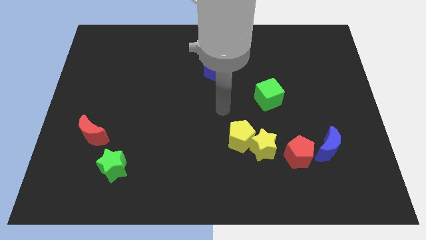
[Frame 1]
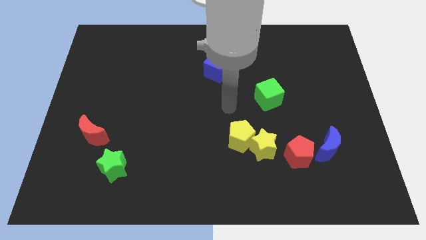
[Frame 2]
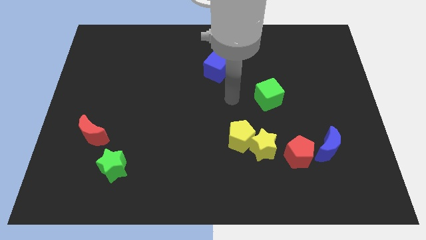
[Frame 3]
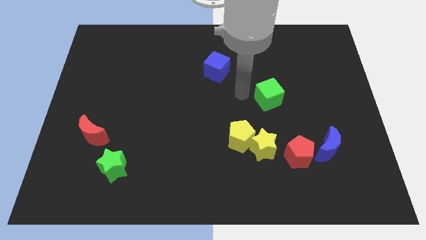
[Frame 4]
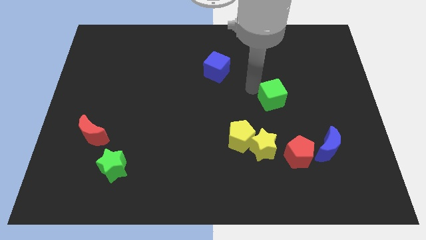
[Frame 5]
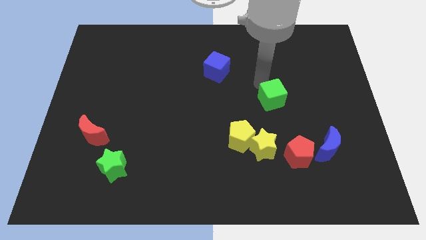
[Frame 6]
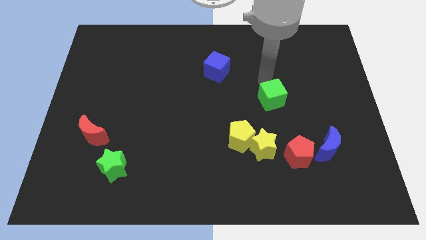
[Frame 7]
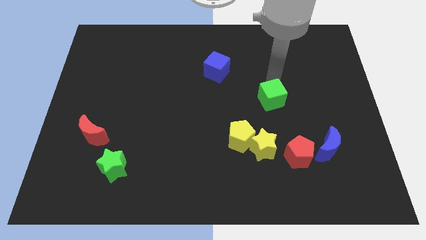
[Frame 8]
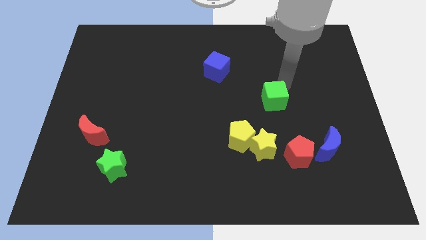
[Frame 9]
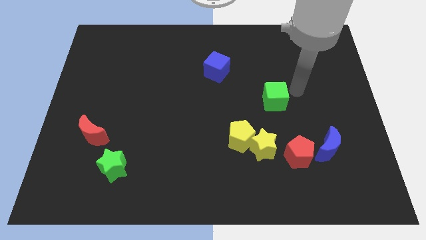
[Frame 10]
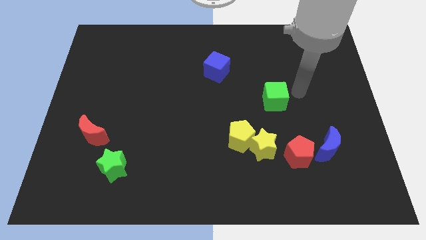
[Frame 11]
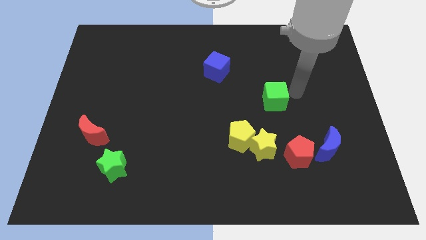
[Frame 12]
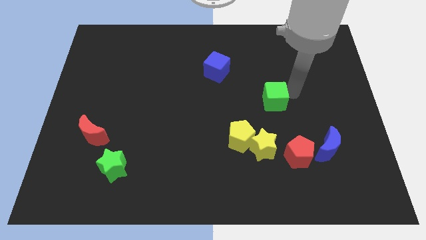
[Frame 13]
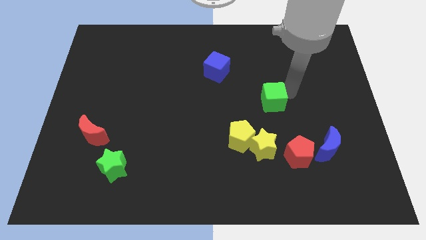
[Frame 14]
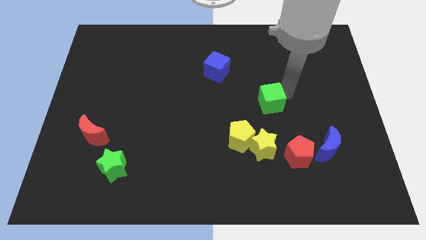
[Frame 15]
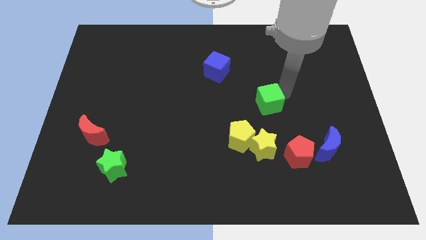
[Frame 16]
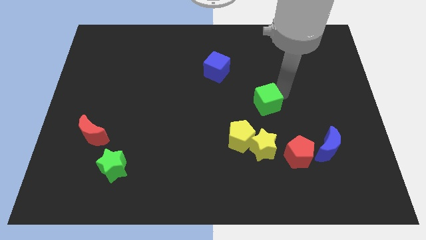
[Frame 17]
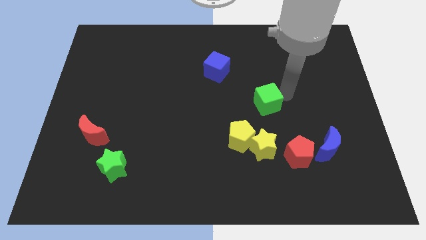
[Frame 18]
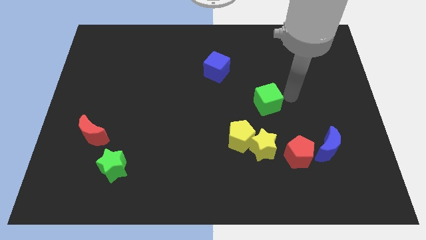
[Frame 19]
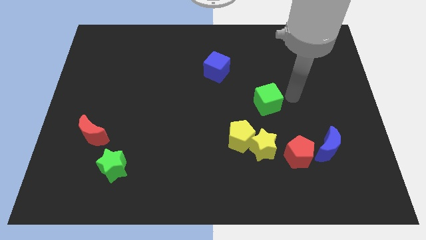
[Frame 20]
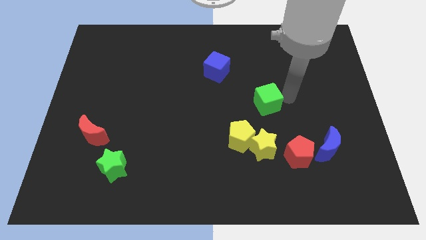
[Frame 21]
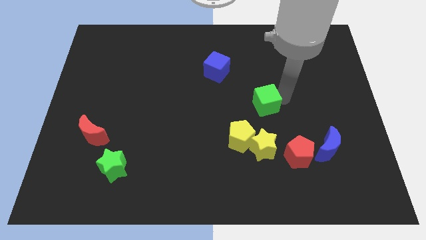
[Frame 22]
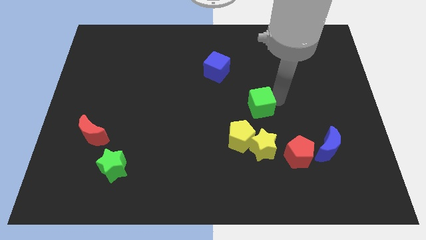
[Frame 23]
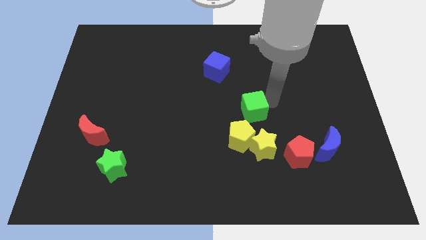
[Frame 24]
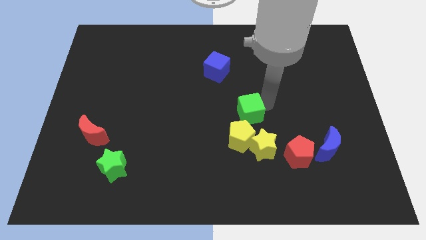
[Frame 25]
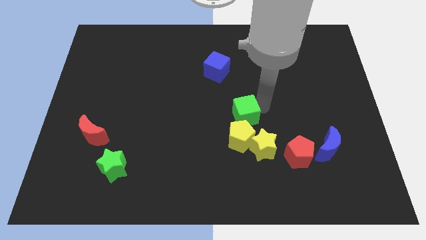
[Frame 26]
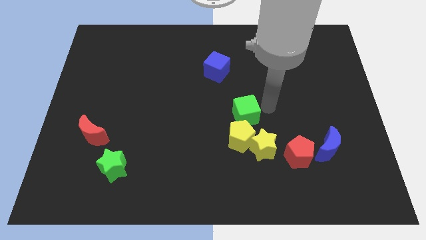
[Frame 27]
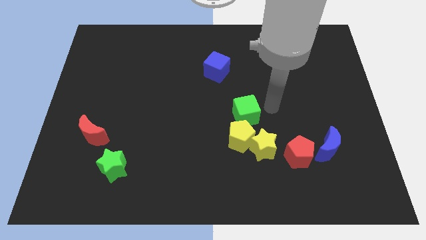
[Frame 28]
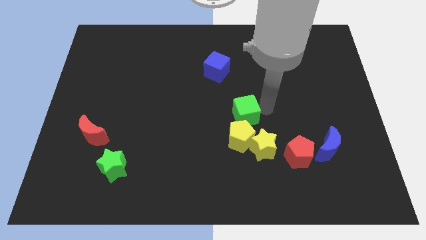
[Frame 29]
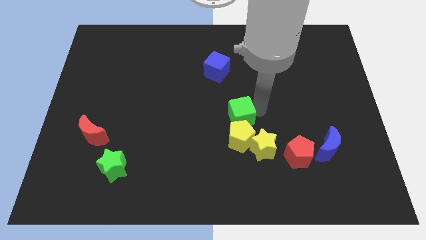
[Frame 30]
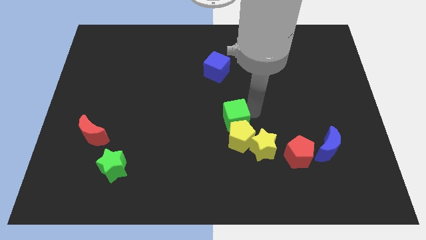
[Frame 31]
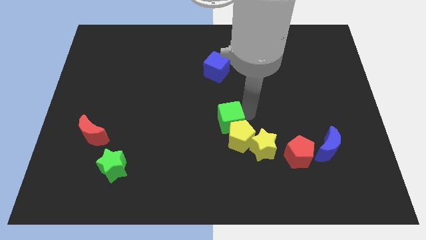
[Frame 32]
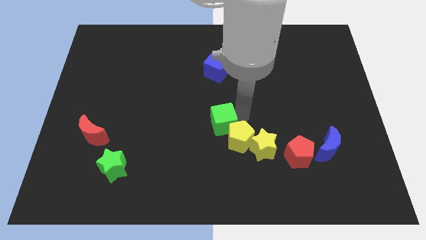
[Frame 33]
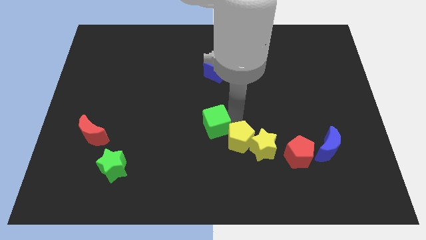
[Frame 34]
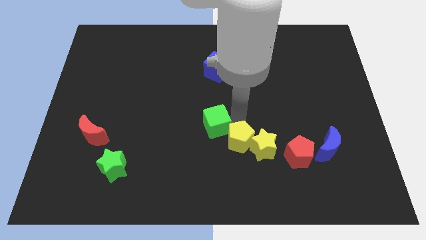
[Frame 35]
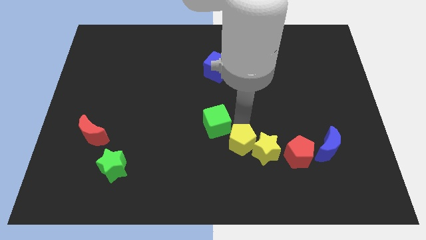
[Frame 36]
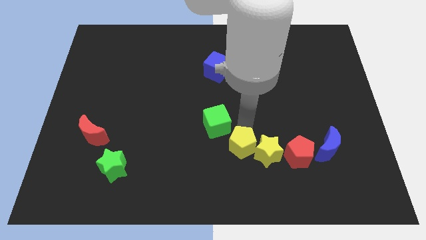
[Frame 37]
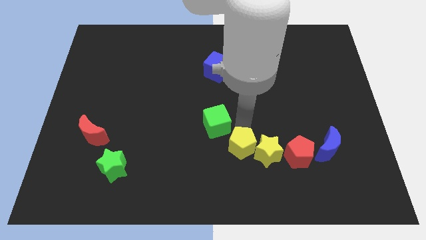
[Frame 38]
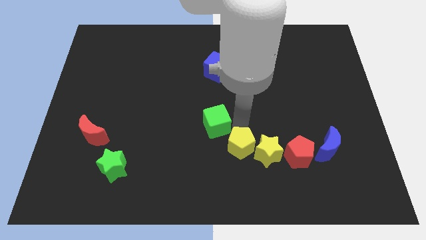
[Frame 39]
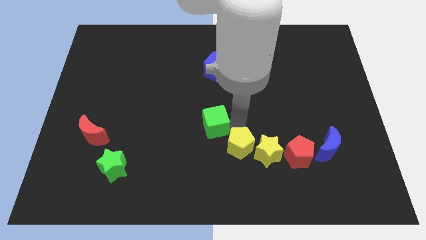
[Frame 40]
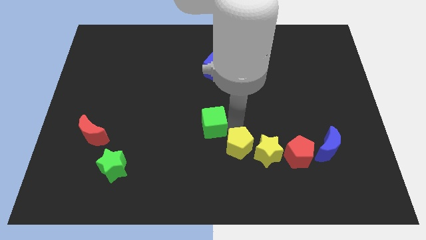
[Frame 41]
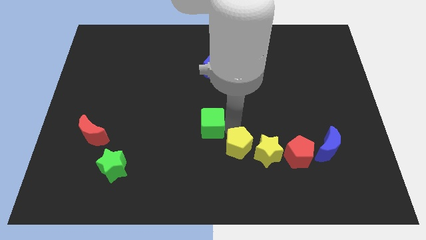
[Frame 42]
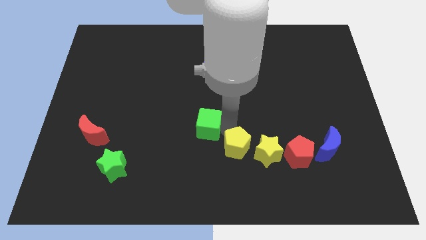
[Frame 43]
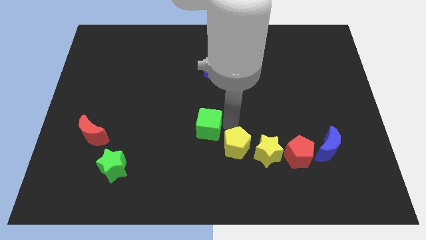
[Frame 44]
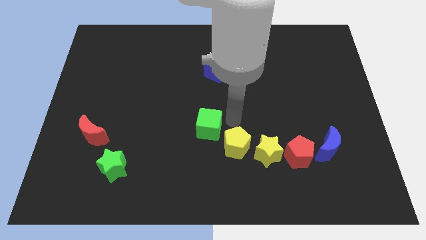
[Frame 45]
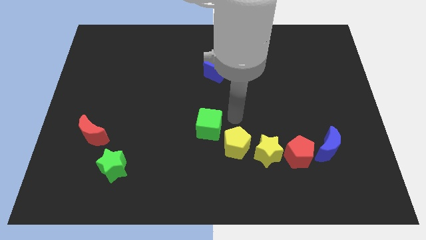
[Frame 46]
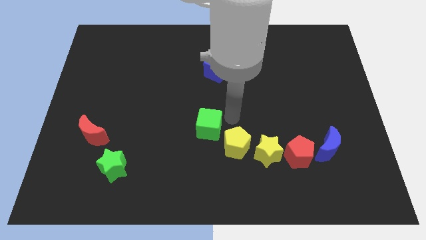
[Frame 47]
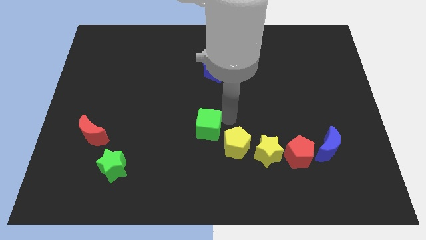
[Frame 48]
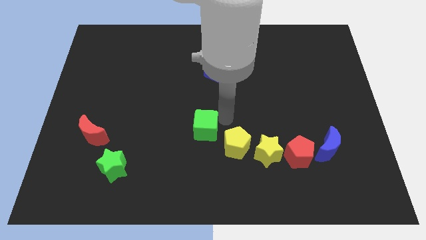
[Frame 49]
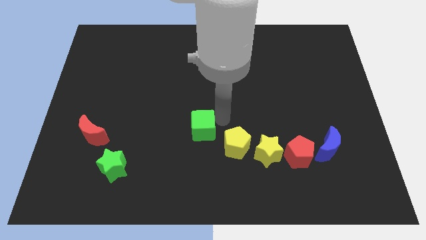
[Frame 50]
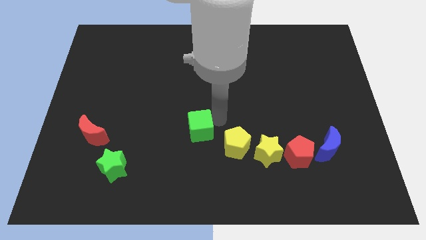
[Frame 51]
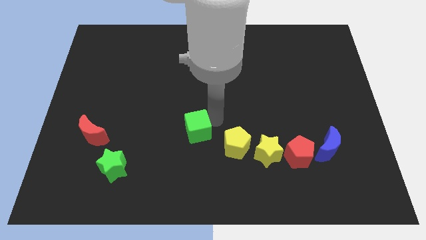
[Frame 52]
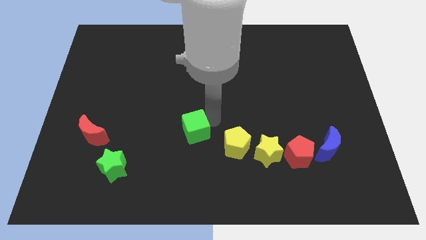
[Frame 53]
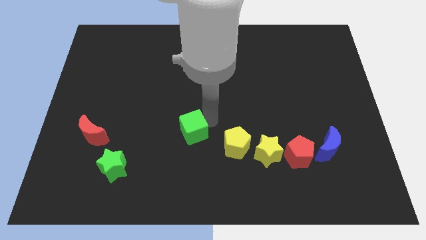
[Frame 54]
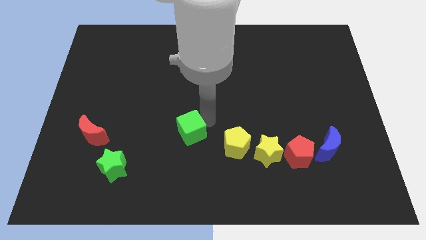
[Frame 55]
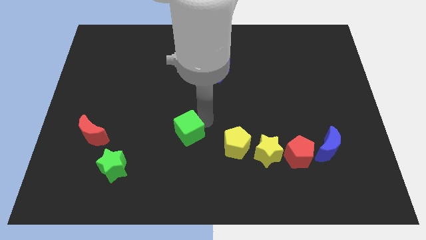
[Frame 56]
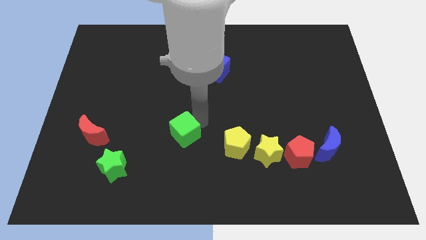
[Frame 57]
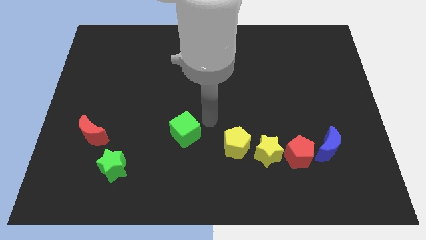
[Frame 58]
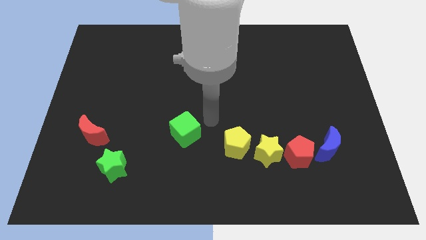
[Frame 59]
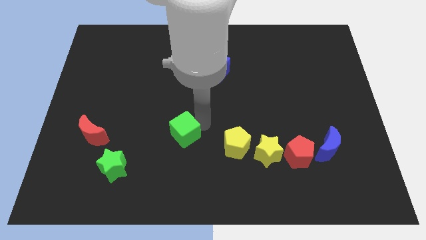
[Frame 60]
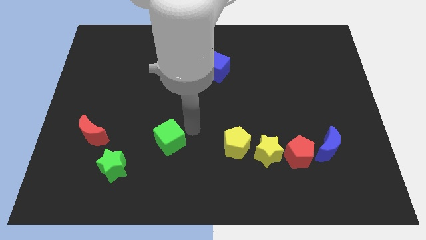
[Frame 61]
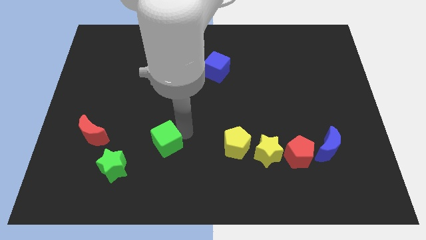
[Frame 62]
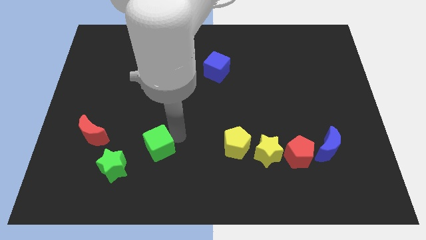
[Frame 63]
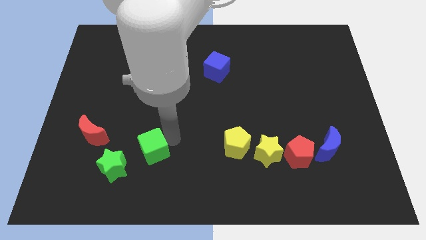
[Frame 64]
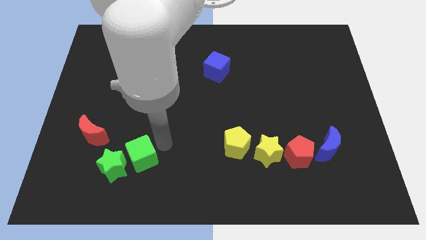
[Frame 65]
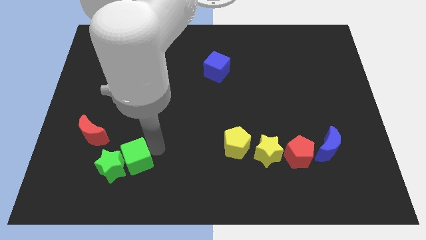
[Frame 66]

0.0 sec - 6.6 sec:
slide the green cube close to the green star

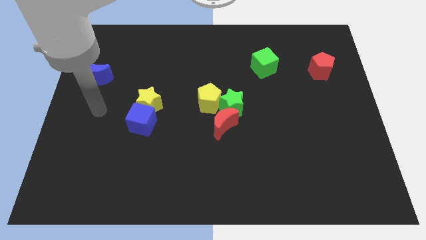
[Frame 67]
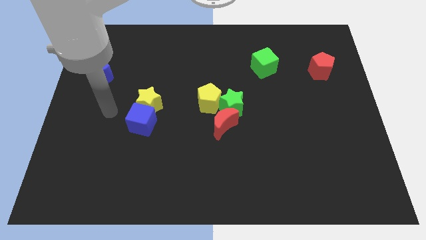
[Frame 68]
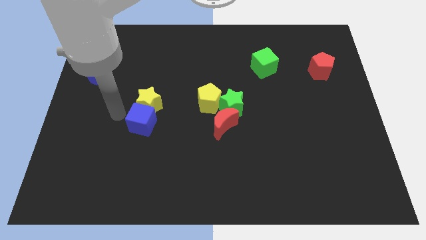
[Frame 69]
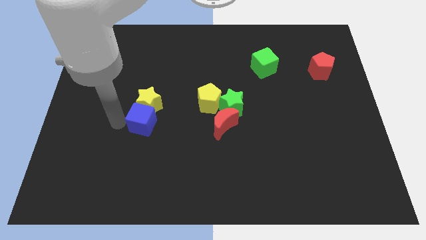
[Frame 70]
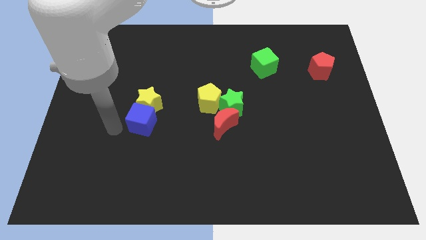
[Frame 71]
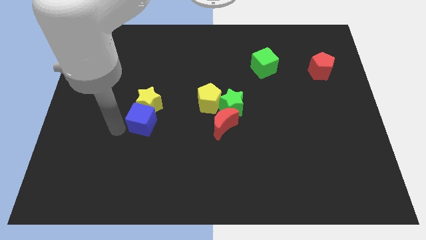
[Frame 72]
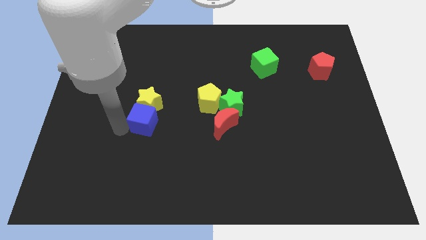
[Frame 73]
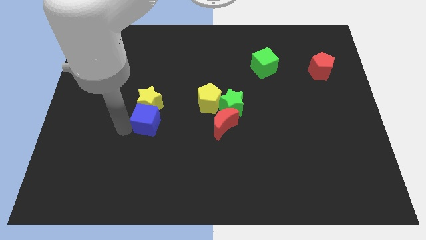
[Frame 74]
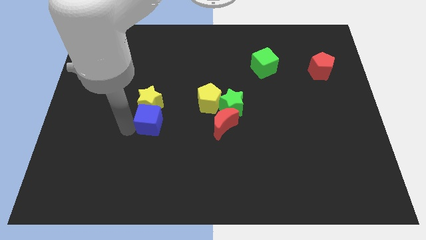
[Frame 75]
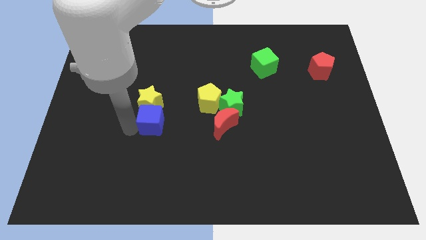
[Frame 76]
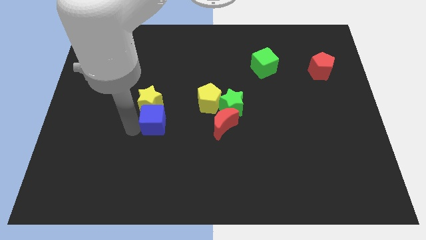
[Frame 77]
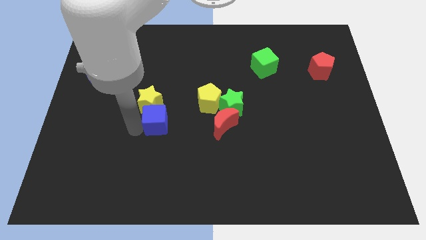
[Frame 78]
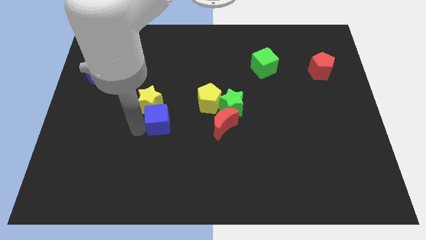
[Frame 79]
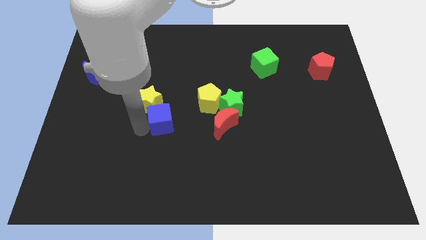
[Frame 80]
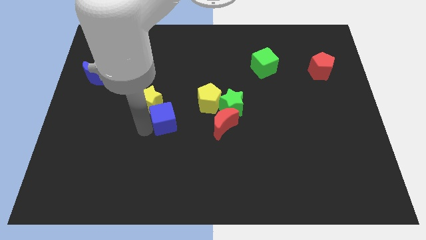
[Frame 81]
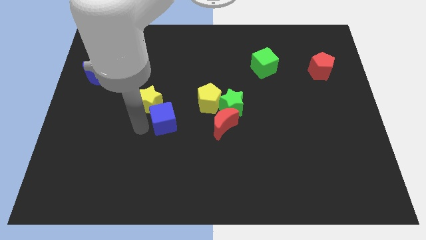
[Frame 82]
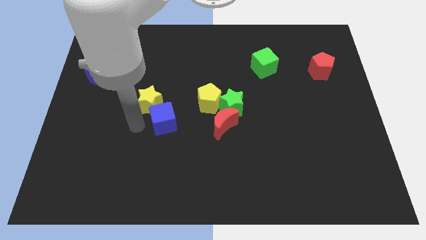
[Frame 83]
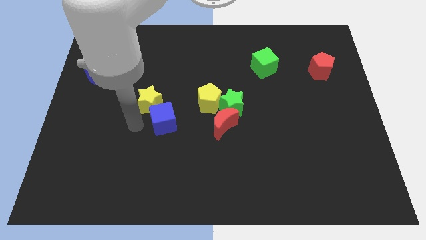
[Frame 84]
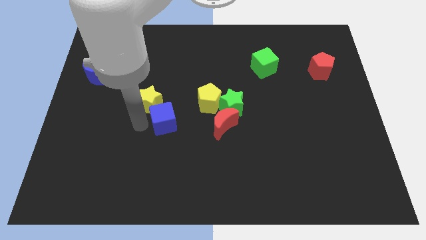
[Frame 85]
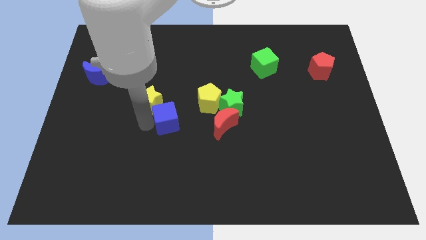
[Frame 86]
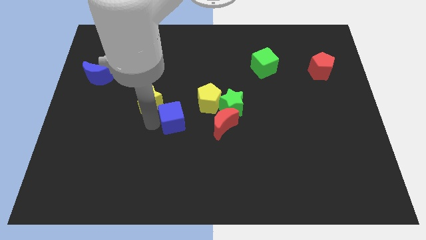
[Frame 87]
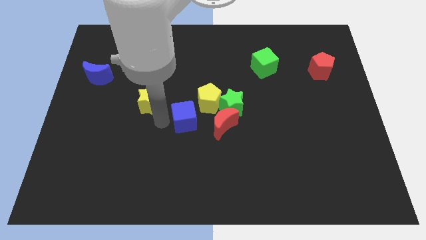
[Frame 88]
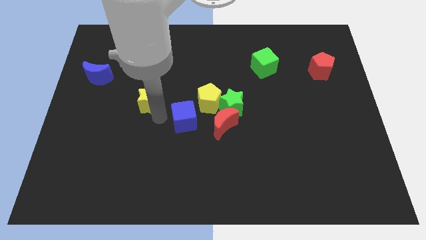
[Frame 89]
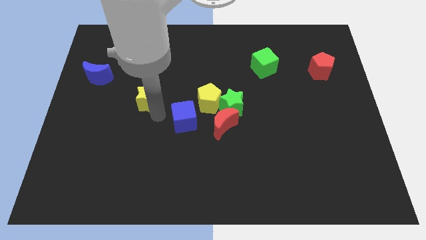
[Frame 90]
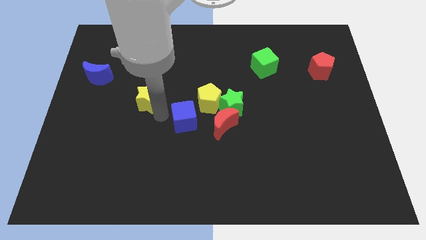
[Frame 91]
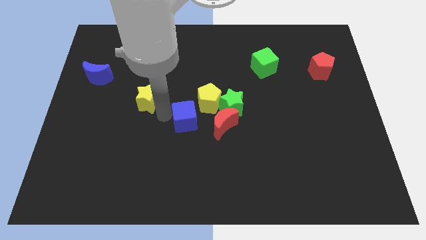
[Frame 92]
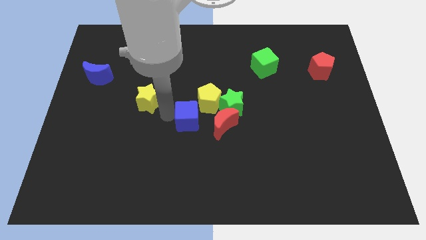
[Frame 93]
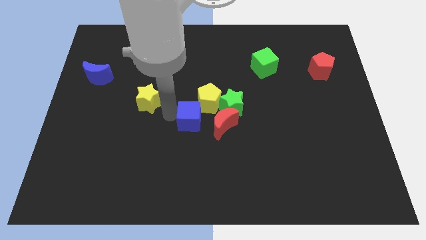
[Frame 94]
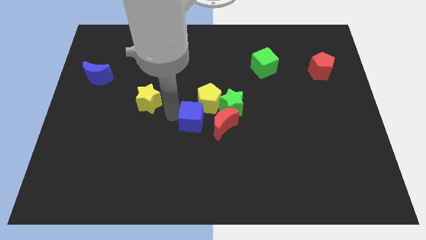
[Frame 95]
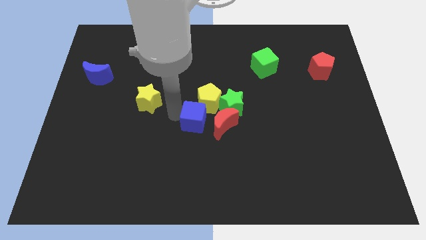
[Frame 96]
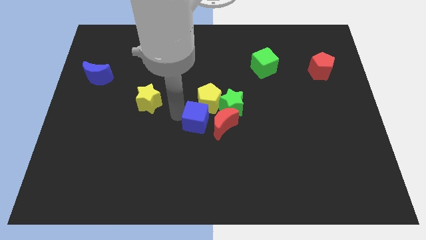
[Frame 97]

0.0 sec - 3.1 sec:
move the blue cube next to the red moon
